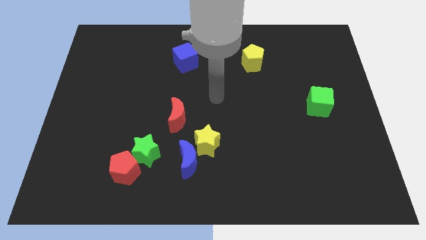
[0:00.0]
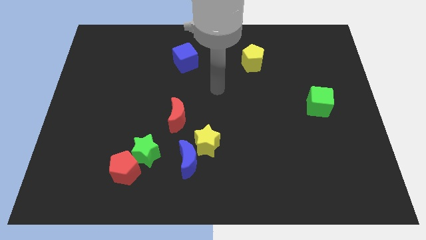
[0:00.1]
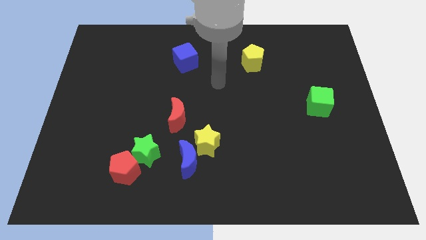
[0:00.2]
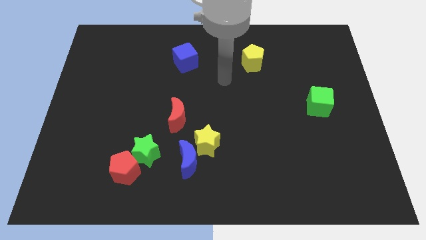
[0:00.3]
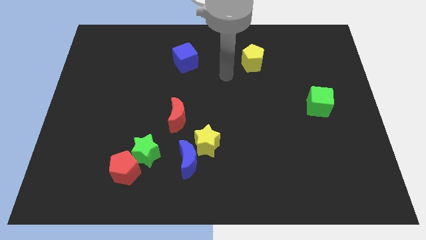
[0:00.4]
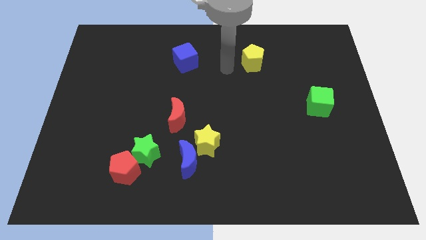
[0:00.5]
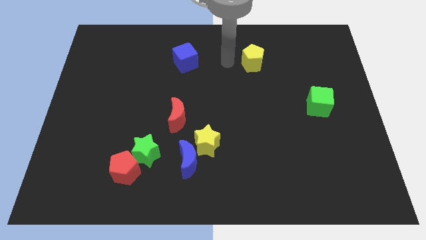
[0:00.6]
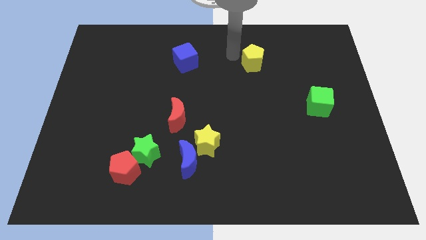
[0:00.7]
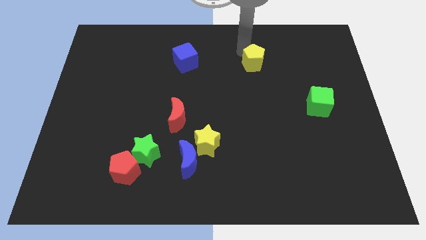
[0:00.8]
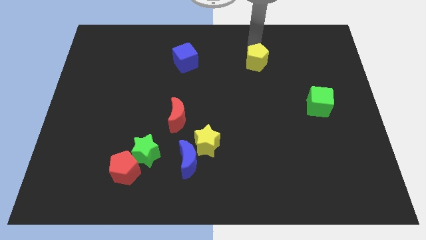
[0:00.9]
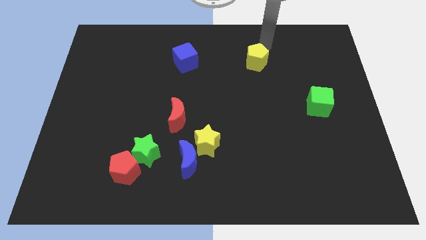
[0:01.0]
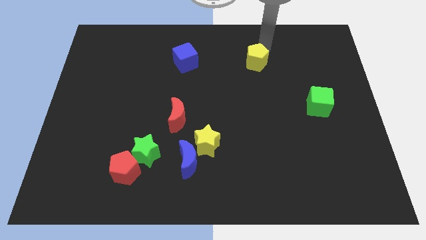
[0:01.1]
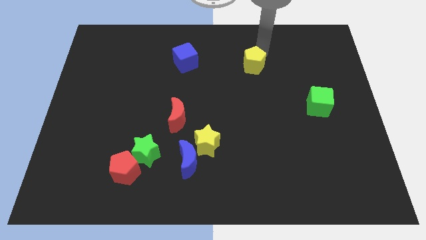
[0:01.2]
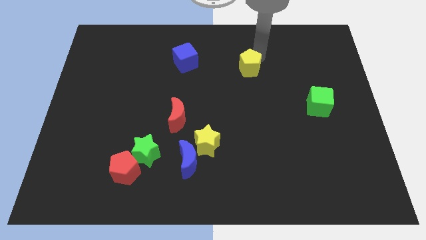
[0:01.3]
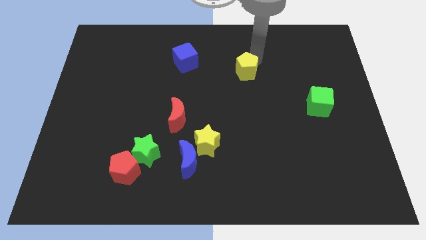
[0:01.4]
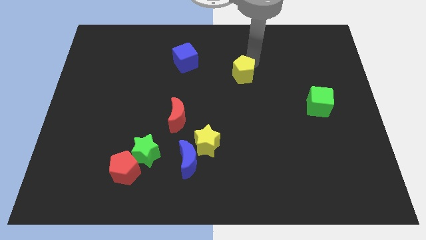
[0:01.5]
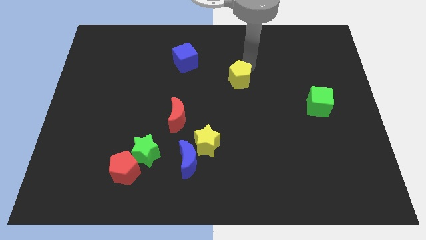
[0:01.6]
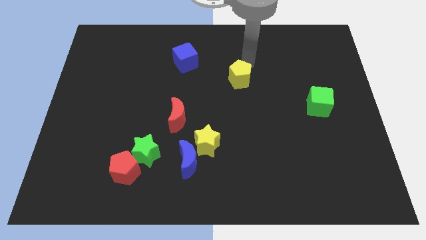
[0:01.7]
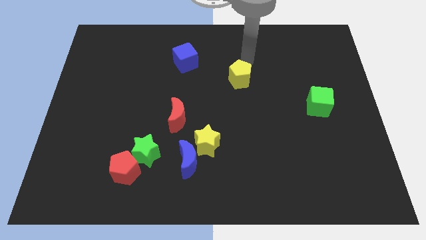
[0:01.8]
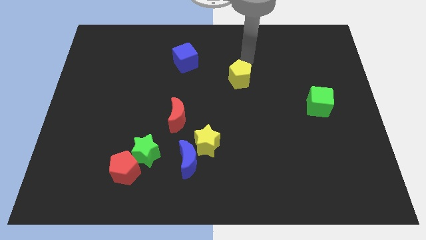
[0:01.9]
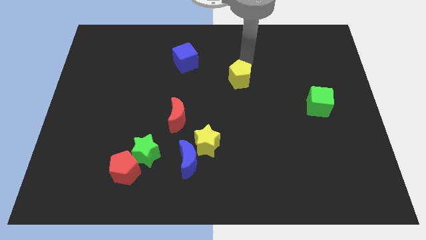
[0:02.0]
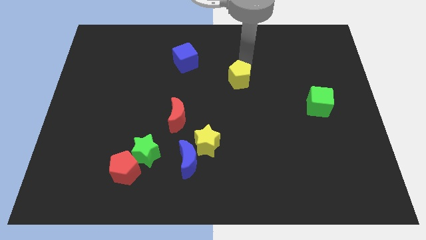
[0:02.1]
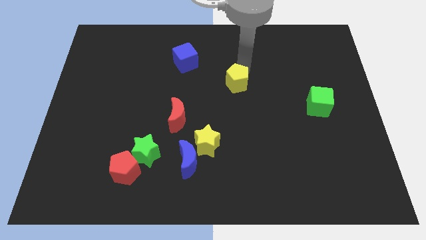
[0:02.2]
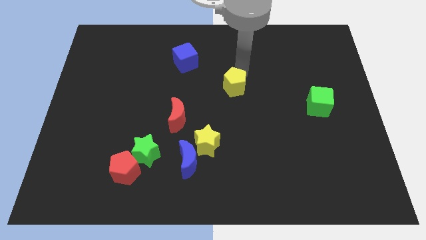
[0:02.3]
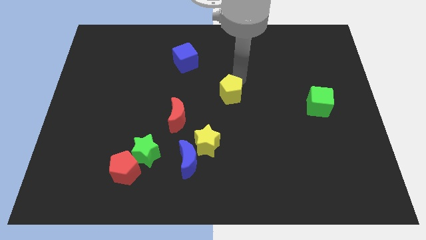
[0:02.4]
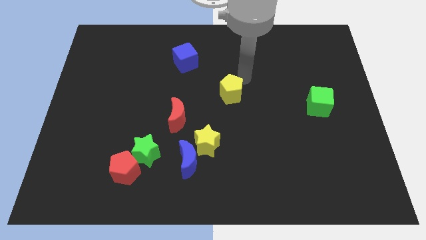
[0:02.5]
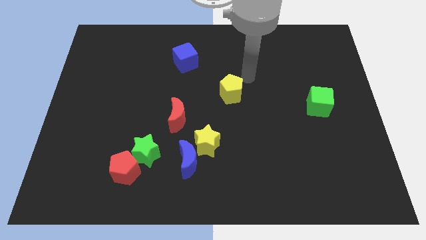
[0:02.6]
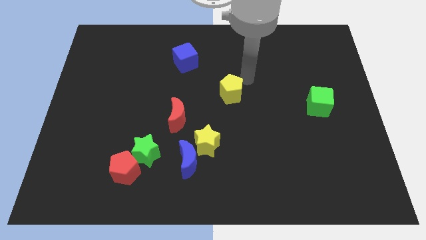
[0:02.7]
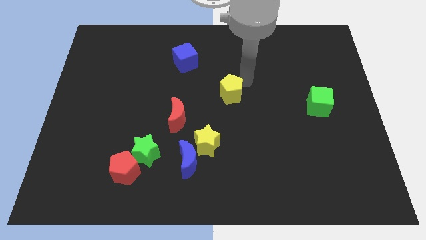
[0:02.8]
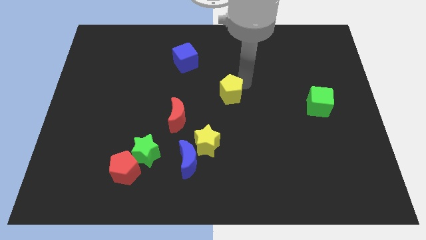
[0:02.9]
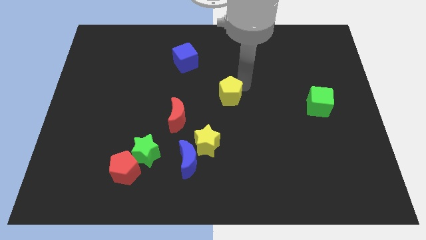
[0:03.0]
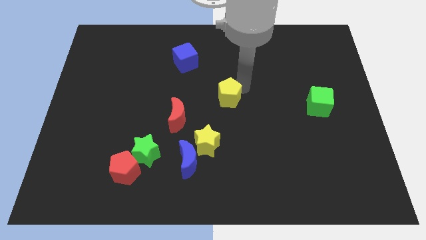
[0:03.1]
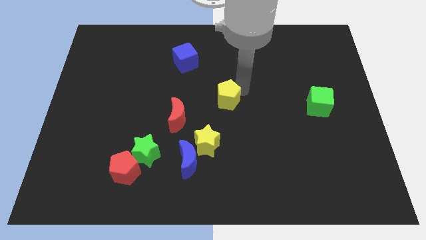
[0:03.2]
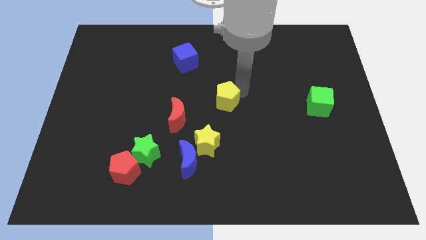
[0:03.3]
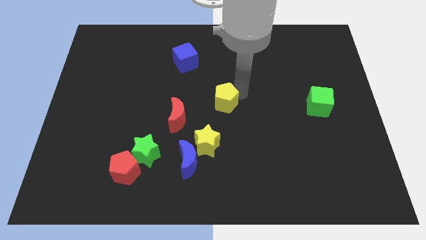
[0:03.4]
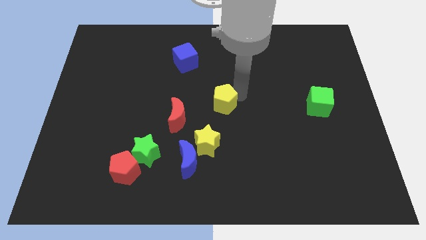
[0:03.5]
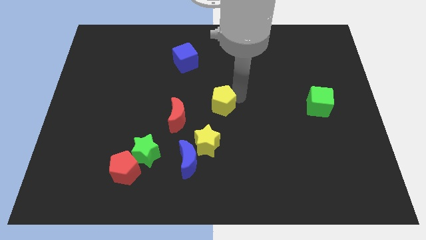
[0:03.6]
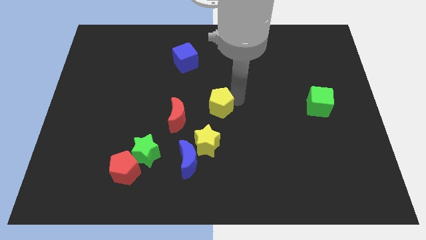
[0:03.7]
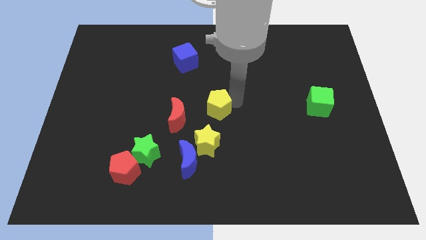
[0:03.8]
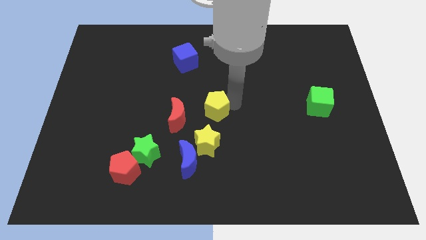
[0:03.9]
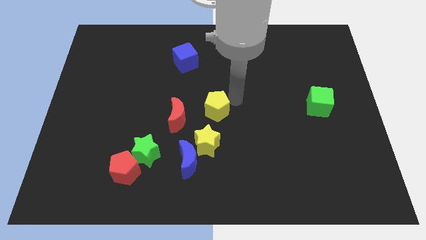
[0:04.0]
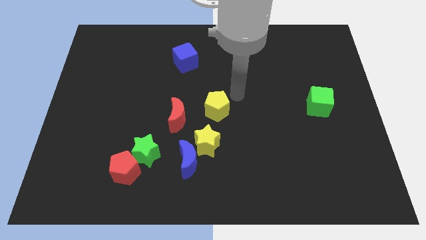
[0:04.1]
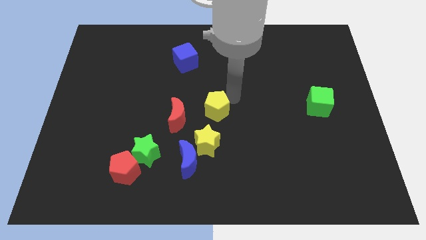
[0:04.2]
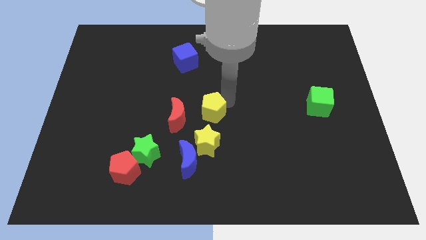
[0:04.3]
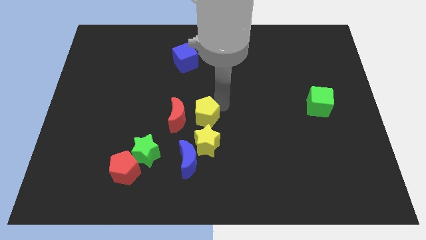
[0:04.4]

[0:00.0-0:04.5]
slide the yellow pentagon to the top side of the blue moon

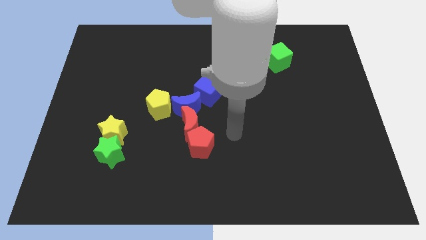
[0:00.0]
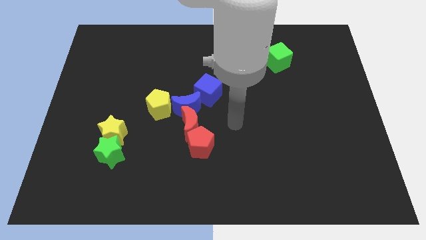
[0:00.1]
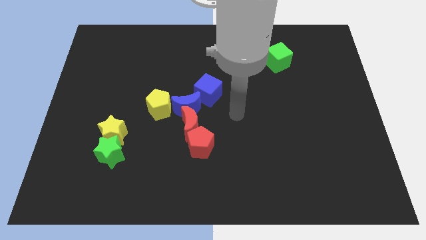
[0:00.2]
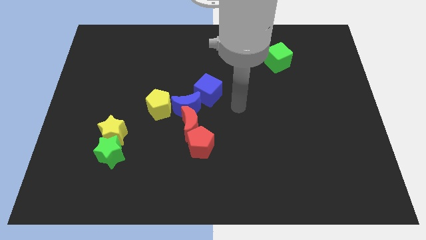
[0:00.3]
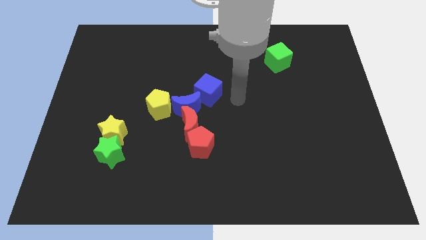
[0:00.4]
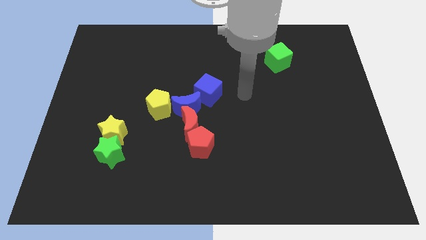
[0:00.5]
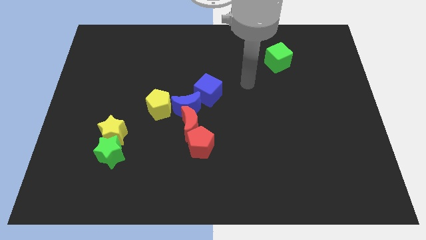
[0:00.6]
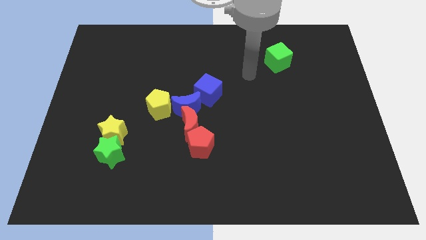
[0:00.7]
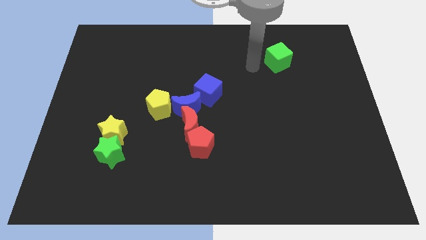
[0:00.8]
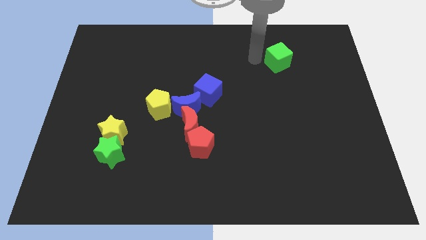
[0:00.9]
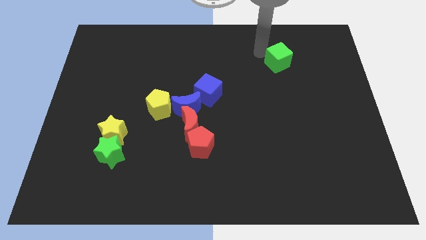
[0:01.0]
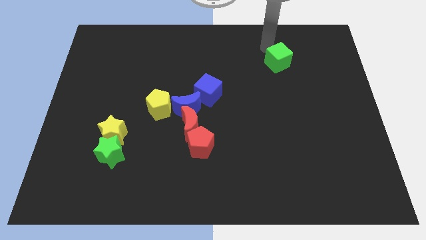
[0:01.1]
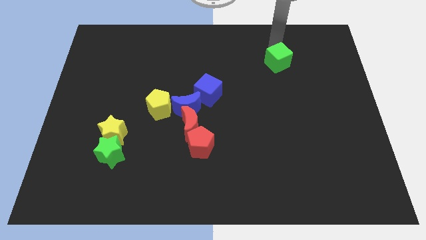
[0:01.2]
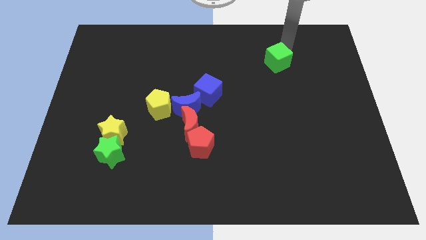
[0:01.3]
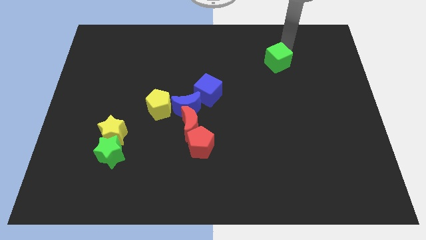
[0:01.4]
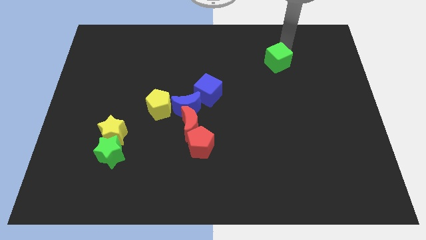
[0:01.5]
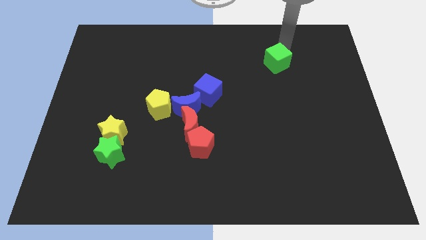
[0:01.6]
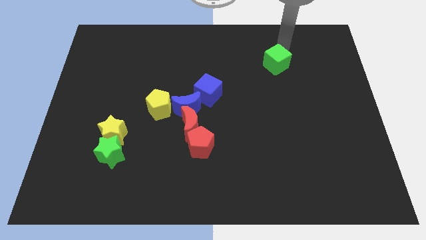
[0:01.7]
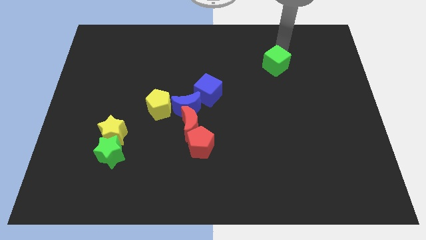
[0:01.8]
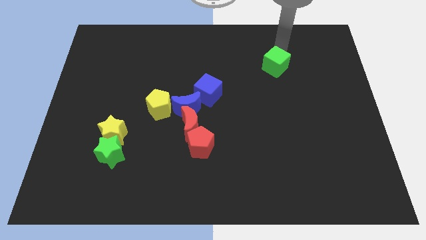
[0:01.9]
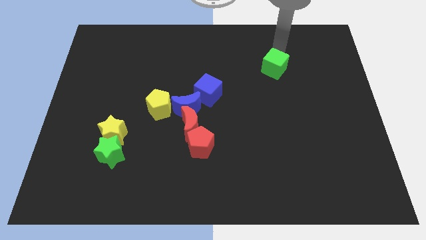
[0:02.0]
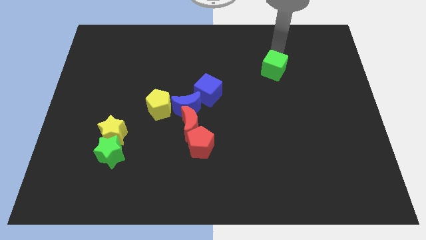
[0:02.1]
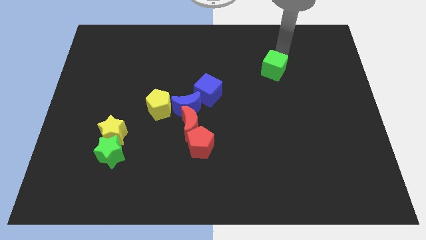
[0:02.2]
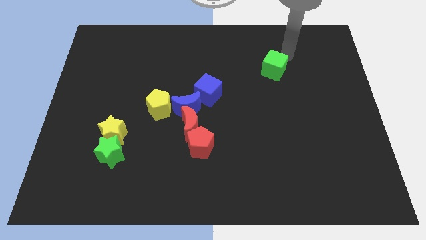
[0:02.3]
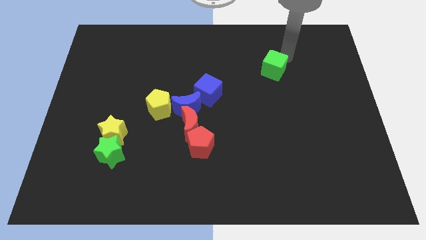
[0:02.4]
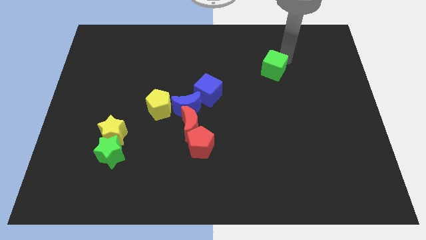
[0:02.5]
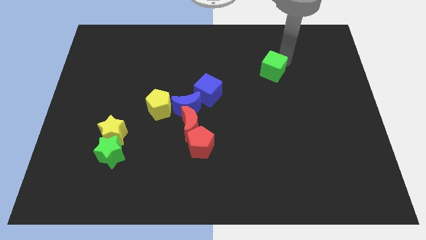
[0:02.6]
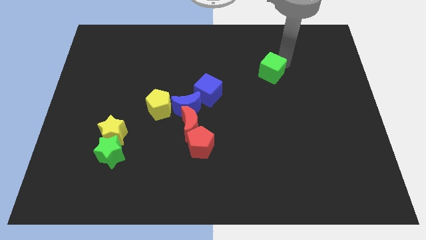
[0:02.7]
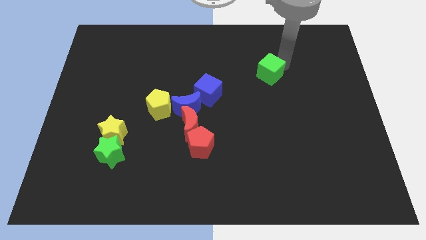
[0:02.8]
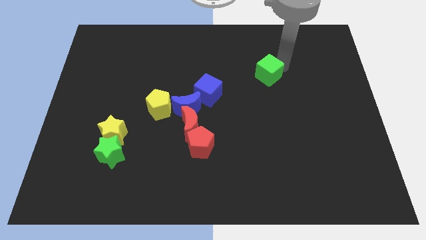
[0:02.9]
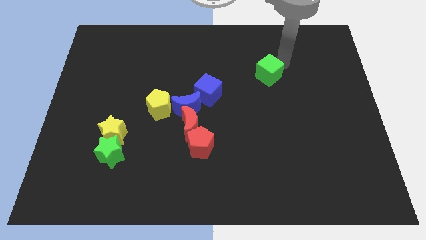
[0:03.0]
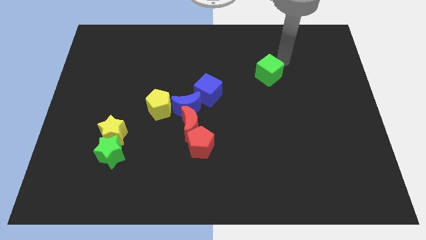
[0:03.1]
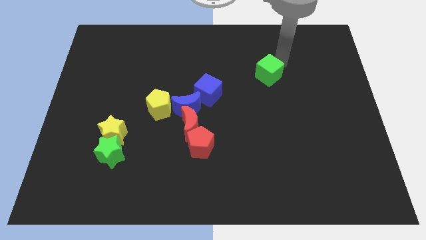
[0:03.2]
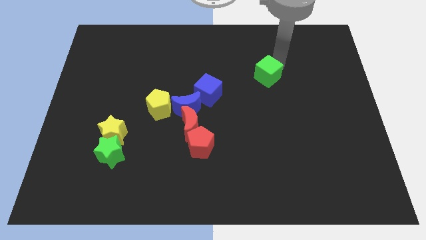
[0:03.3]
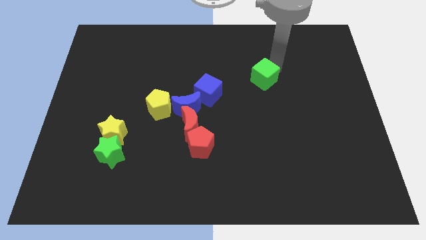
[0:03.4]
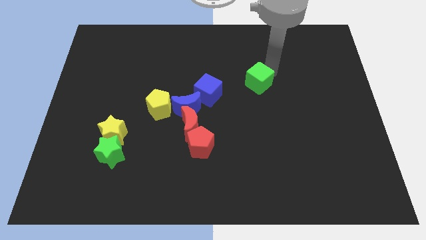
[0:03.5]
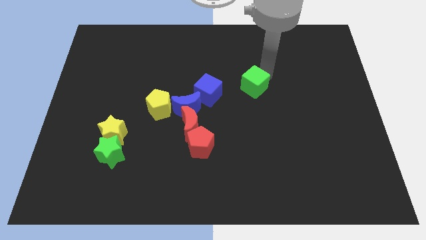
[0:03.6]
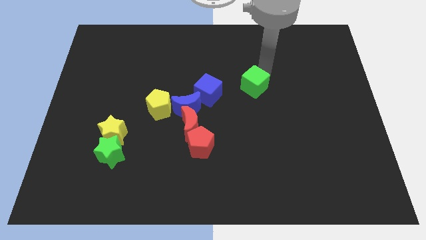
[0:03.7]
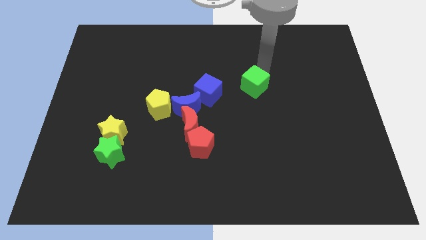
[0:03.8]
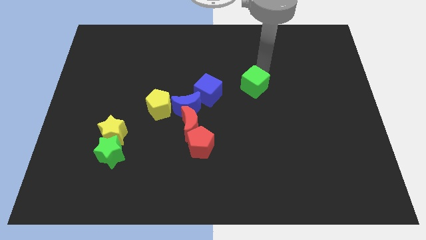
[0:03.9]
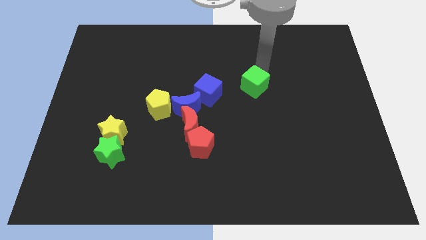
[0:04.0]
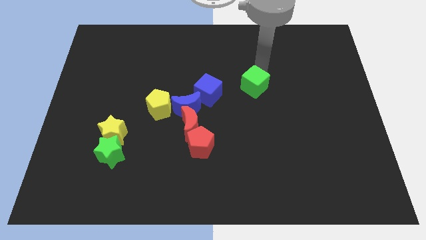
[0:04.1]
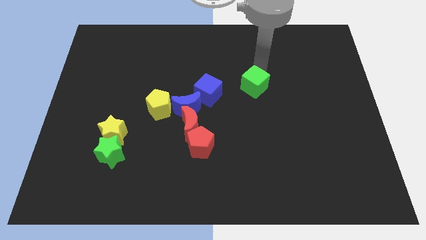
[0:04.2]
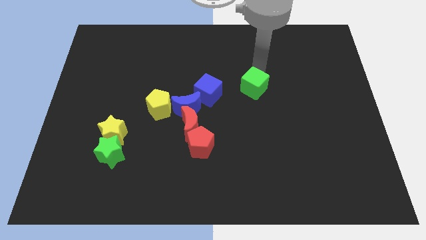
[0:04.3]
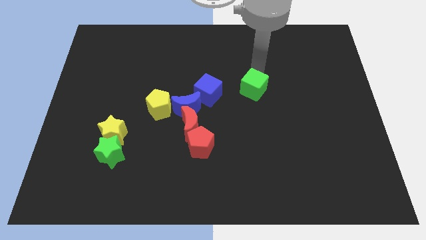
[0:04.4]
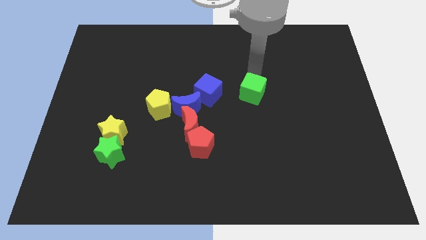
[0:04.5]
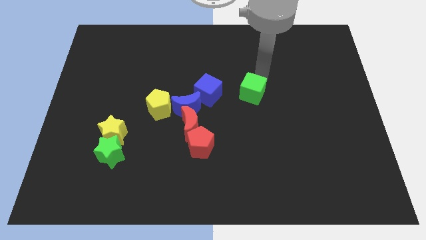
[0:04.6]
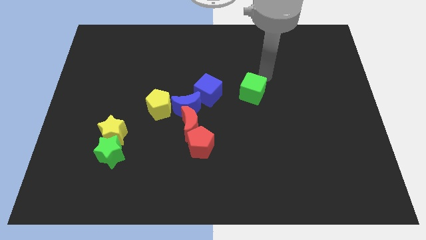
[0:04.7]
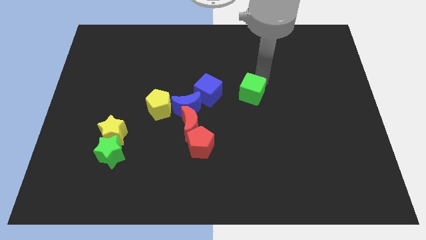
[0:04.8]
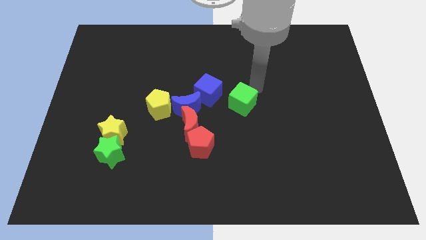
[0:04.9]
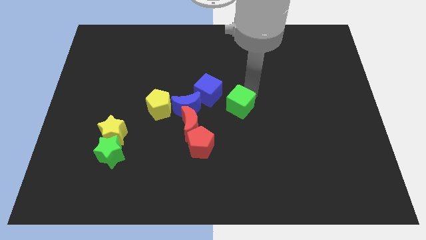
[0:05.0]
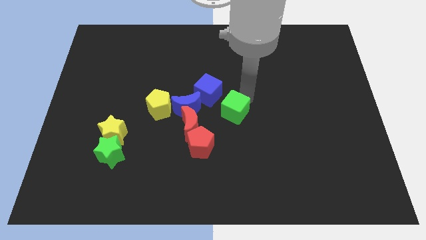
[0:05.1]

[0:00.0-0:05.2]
slide the green cube to the top right side of the red pentagon
